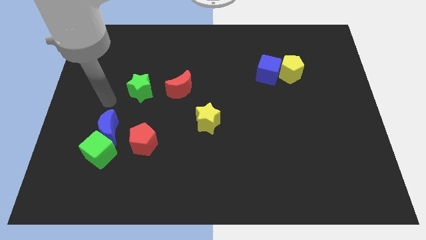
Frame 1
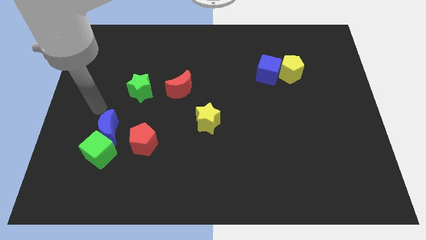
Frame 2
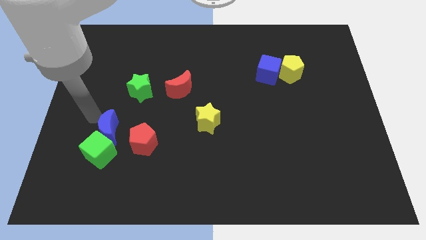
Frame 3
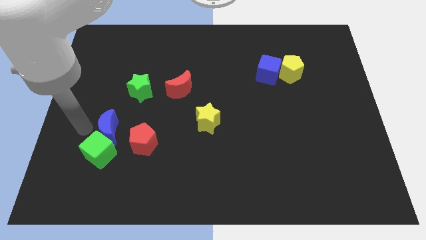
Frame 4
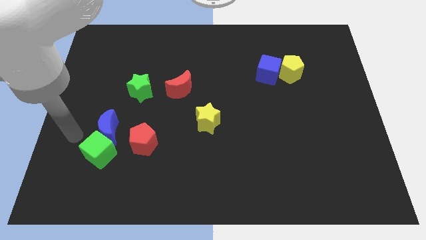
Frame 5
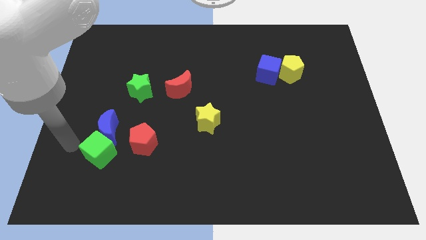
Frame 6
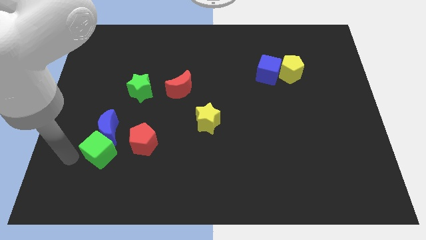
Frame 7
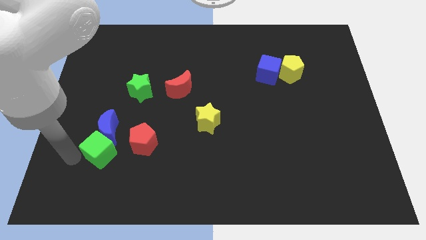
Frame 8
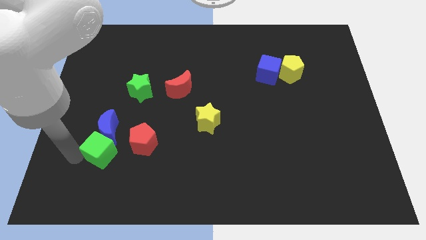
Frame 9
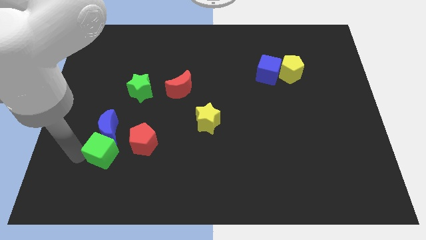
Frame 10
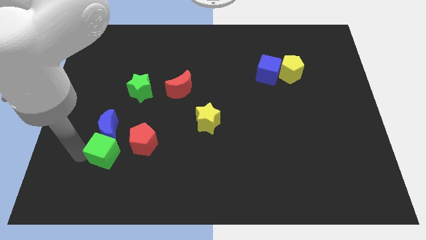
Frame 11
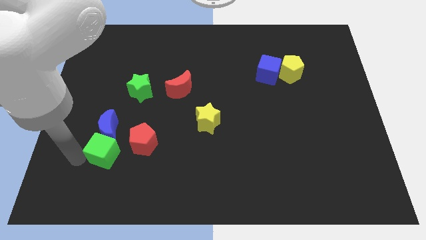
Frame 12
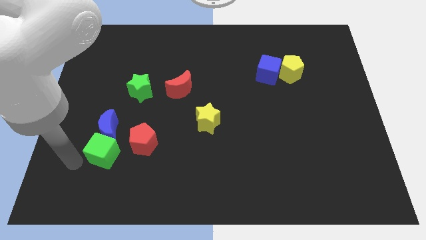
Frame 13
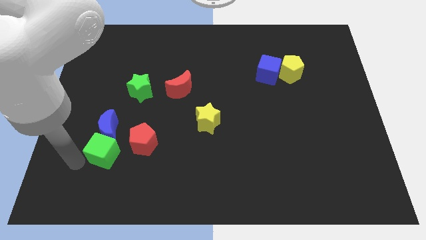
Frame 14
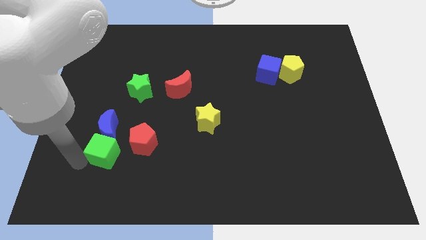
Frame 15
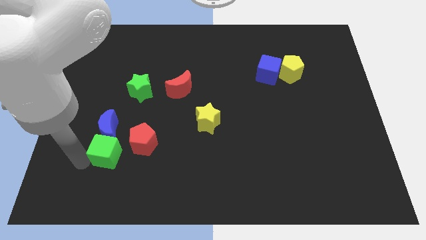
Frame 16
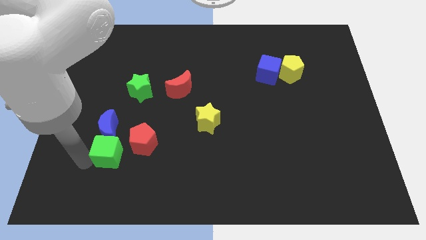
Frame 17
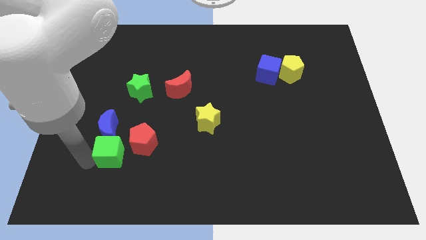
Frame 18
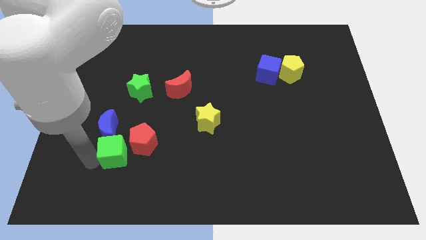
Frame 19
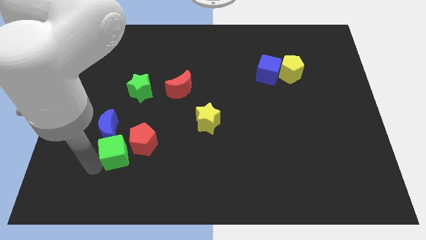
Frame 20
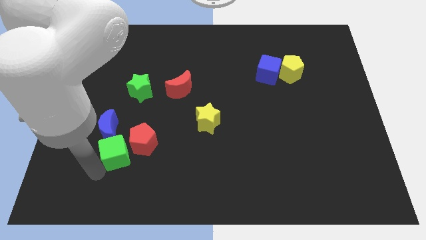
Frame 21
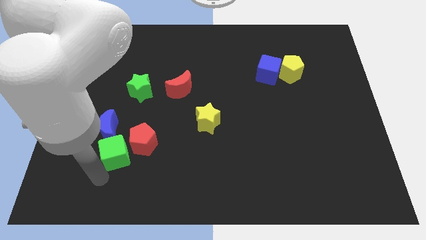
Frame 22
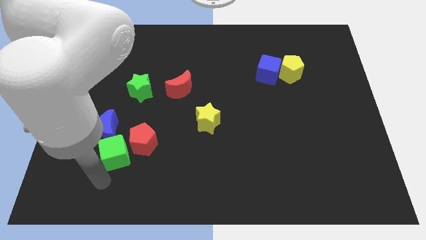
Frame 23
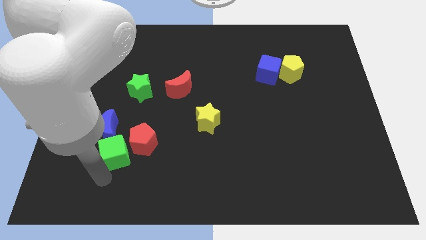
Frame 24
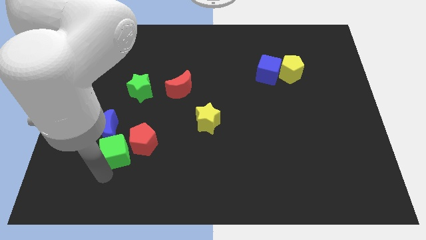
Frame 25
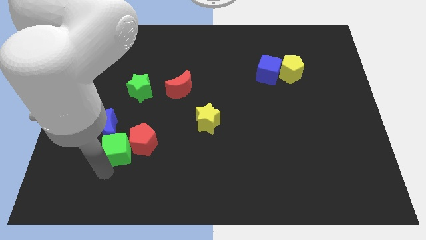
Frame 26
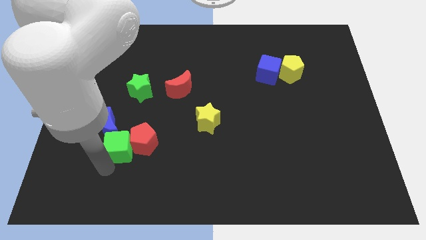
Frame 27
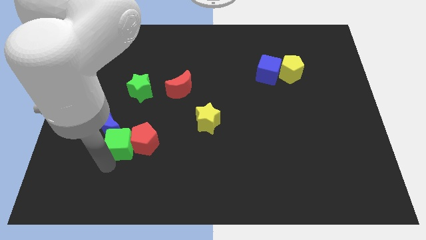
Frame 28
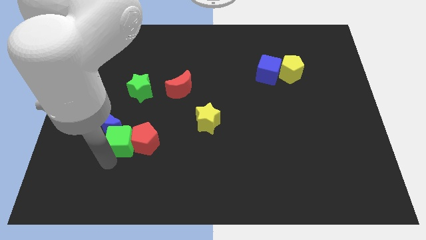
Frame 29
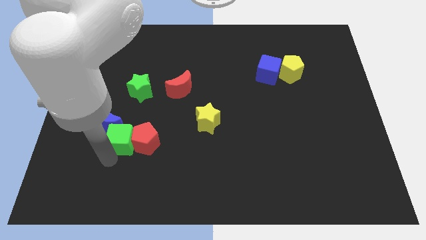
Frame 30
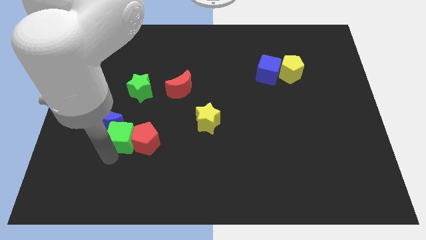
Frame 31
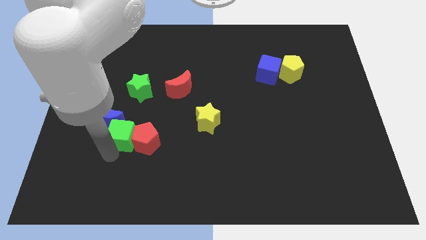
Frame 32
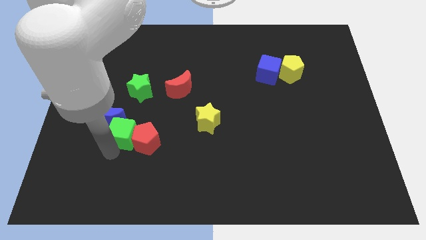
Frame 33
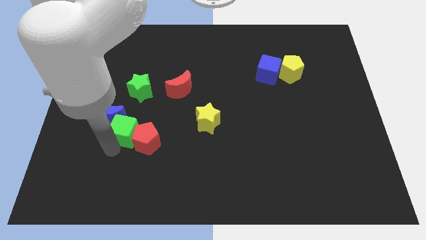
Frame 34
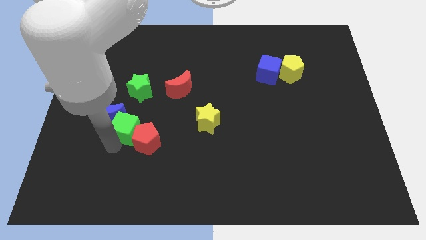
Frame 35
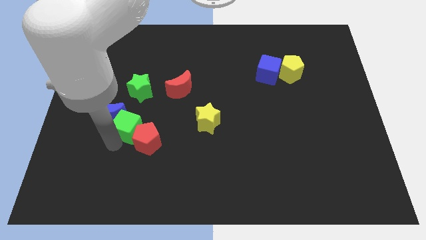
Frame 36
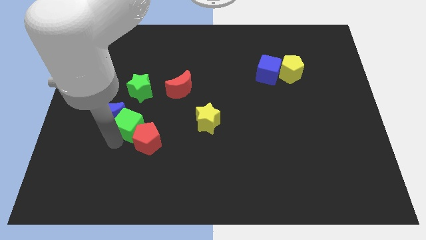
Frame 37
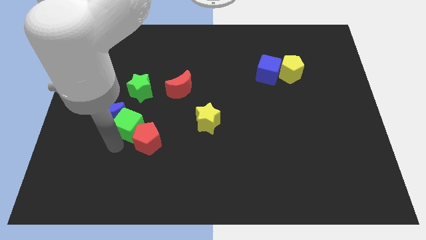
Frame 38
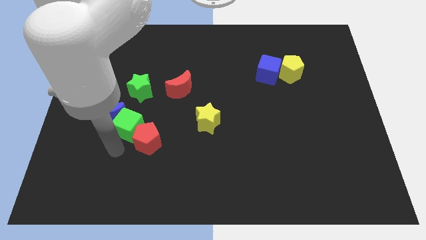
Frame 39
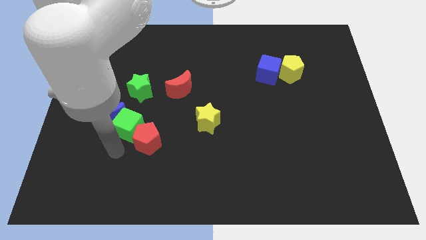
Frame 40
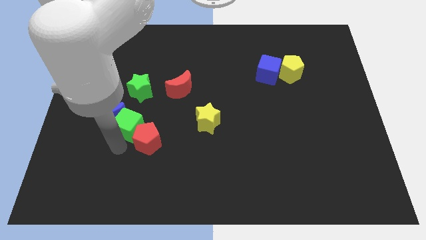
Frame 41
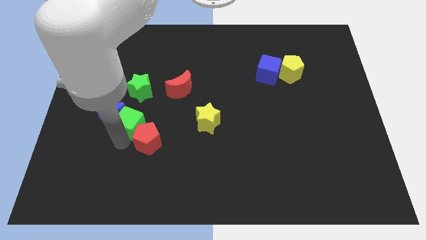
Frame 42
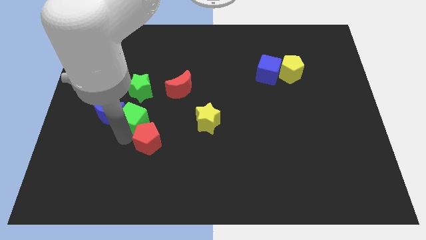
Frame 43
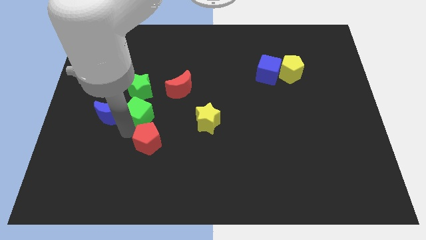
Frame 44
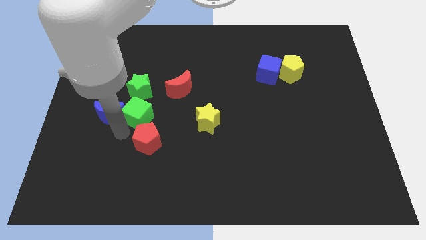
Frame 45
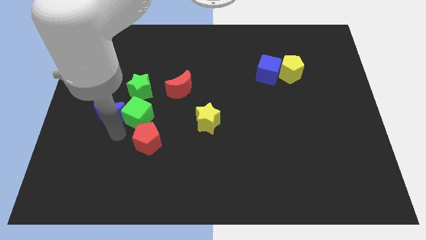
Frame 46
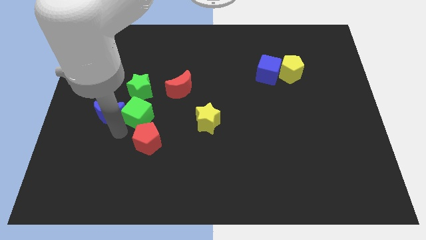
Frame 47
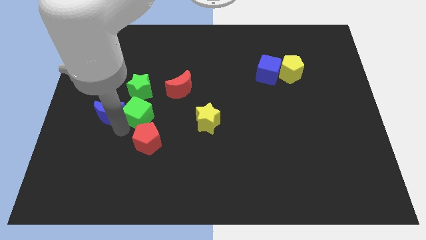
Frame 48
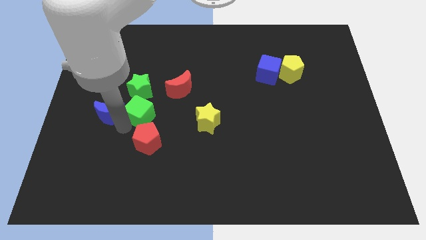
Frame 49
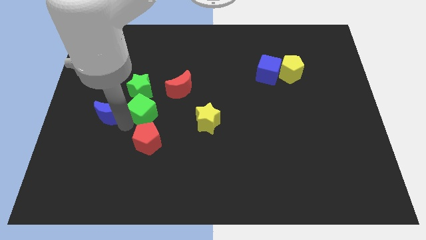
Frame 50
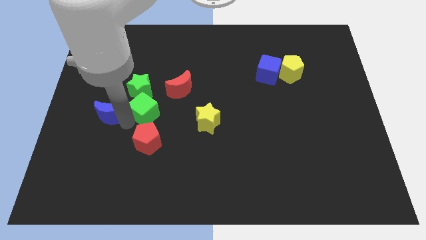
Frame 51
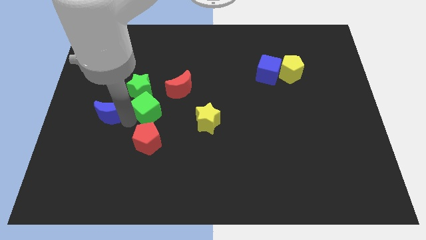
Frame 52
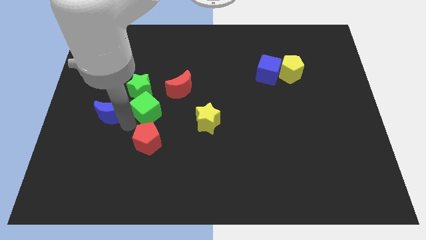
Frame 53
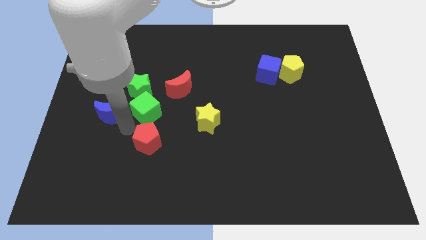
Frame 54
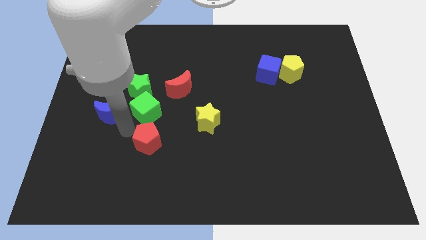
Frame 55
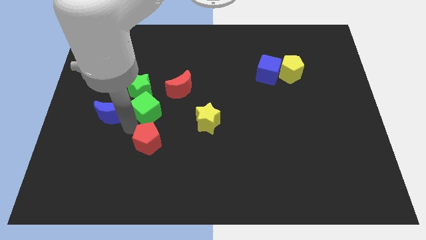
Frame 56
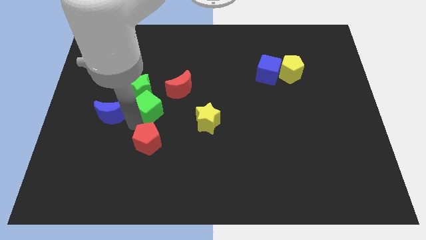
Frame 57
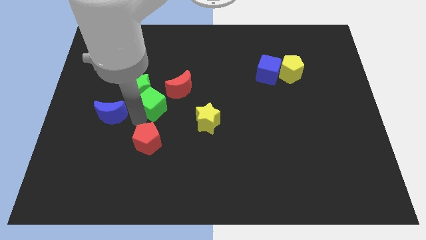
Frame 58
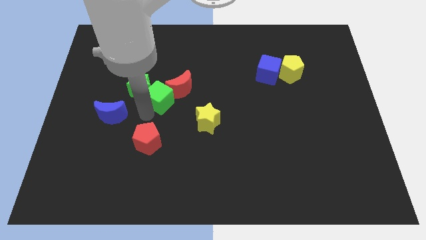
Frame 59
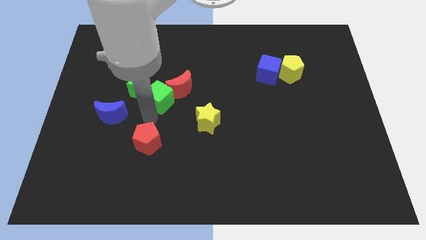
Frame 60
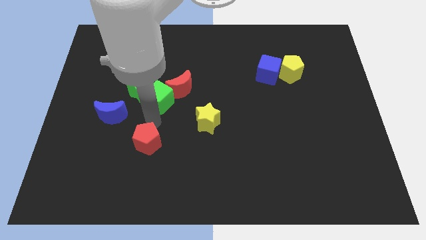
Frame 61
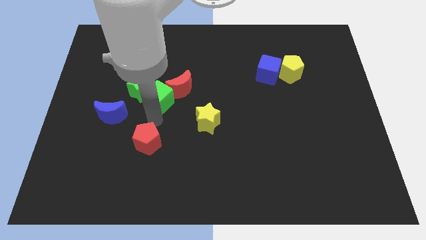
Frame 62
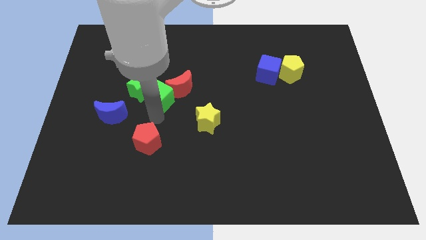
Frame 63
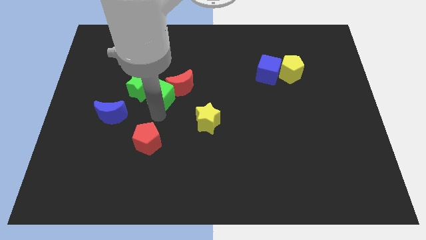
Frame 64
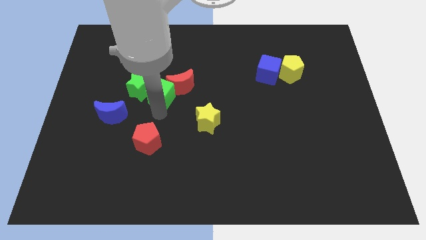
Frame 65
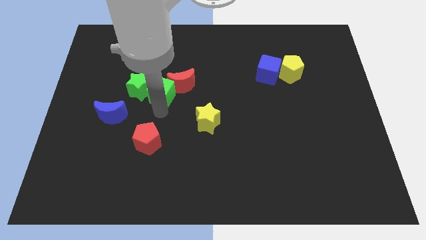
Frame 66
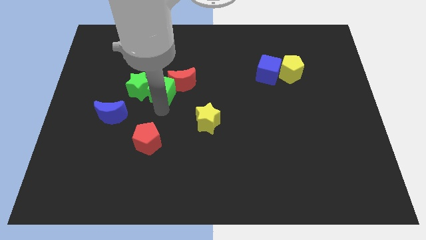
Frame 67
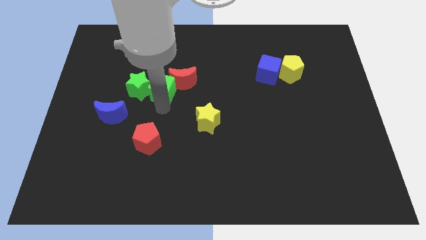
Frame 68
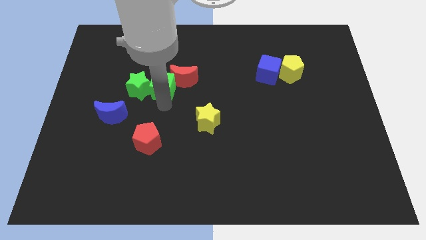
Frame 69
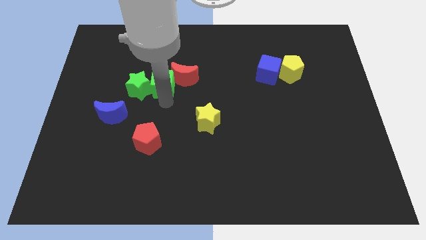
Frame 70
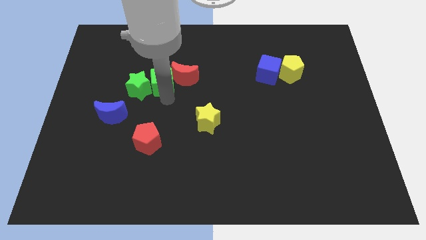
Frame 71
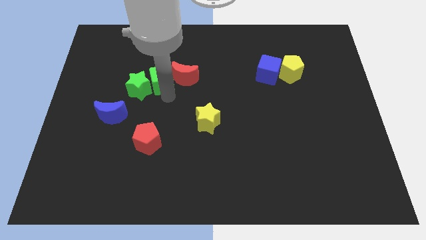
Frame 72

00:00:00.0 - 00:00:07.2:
push the green cube to the top left side of the red moon
